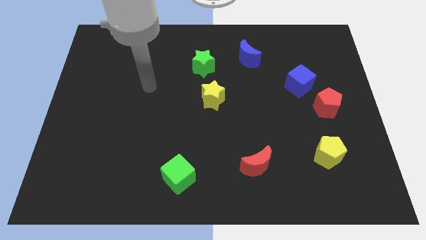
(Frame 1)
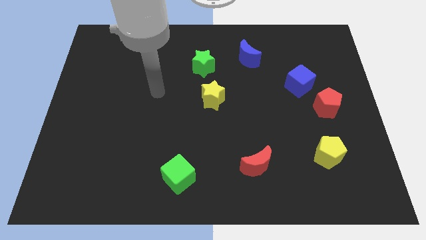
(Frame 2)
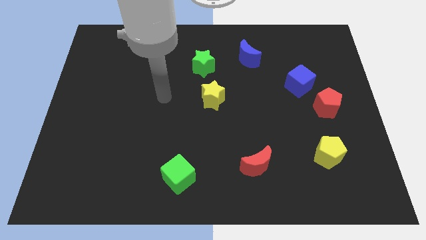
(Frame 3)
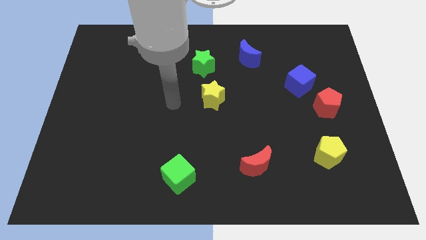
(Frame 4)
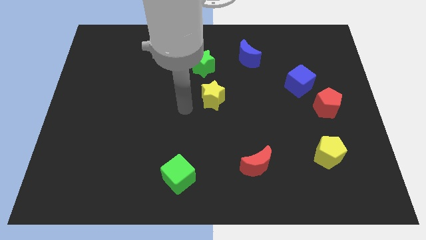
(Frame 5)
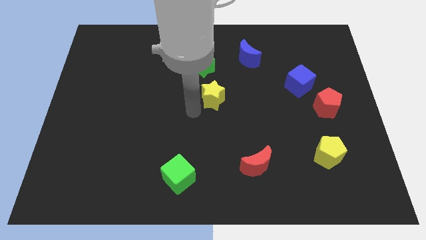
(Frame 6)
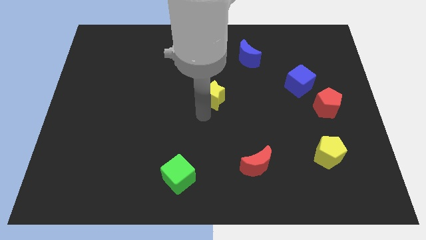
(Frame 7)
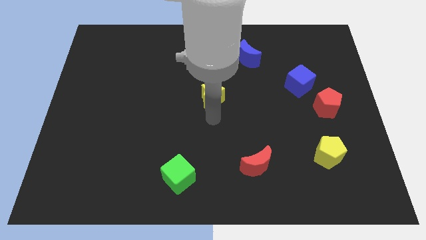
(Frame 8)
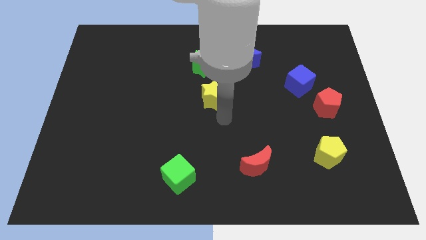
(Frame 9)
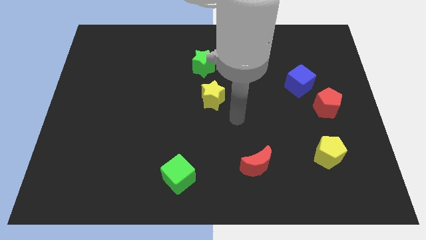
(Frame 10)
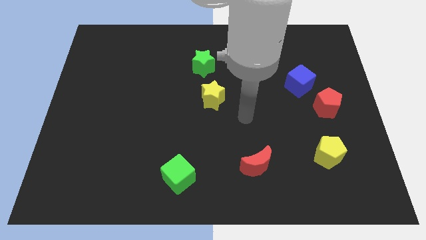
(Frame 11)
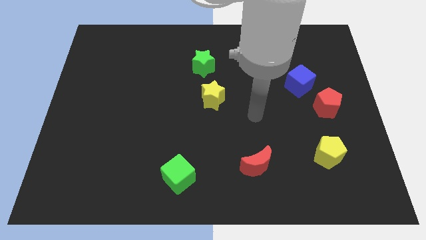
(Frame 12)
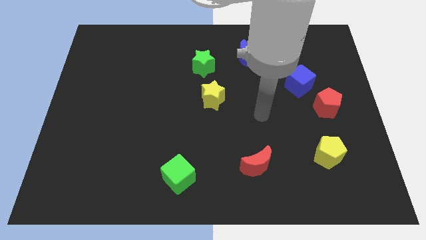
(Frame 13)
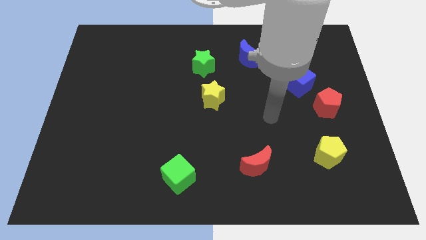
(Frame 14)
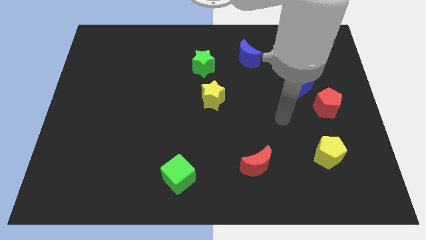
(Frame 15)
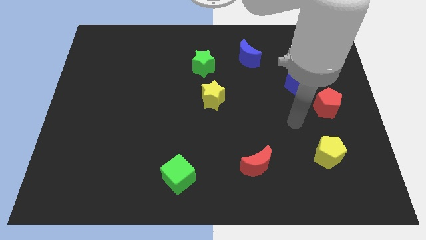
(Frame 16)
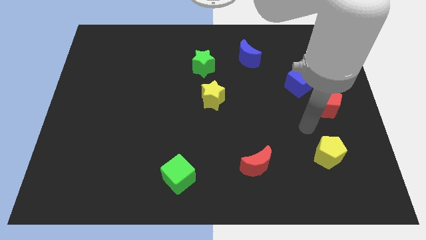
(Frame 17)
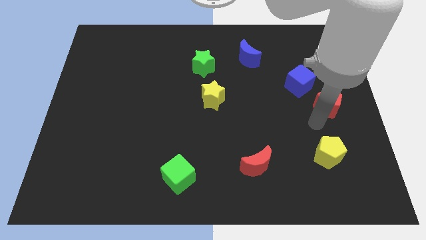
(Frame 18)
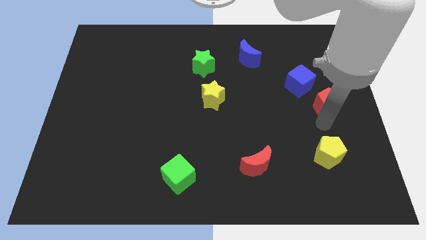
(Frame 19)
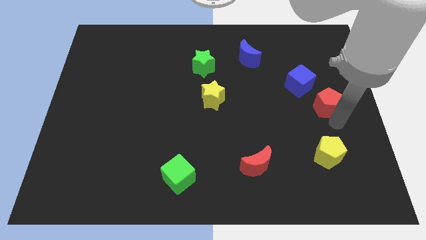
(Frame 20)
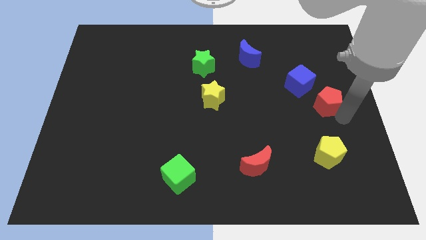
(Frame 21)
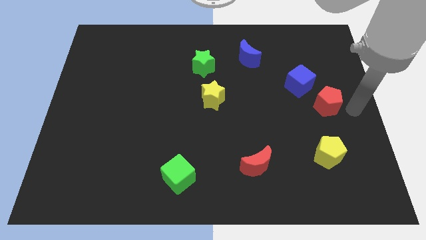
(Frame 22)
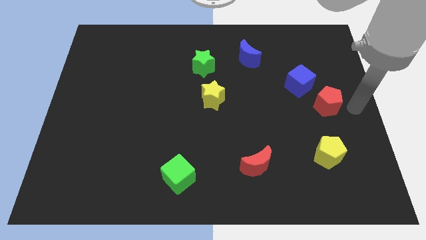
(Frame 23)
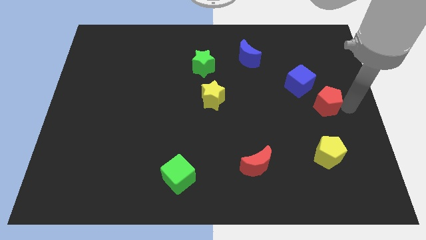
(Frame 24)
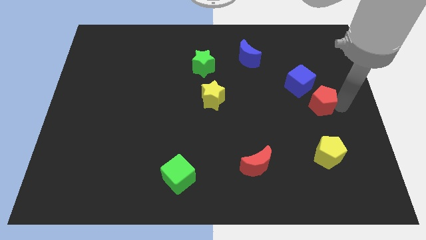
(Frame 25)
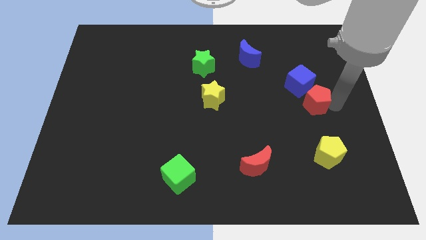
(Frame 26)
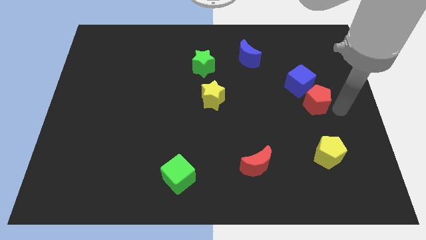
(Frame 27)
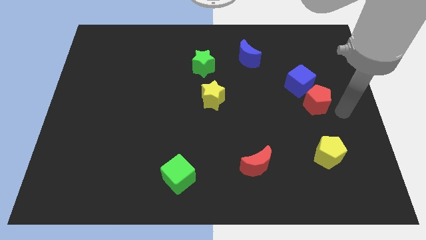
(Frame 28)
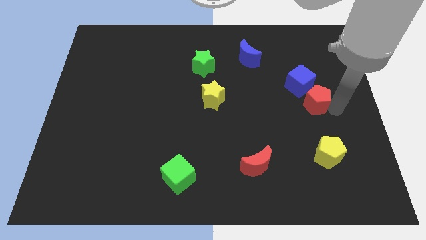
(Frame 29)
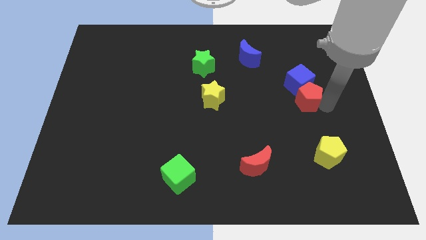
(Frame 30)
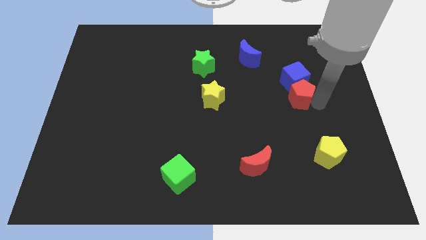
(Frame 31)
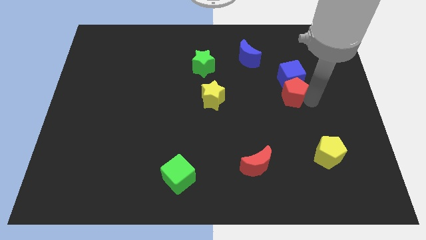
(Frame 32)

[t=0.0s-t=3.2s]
slightly push the red pentagon upwards and then to the left

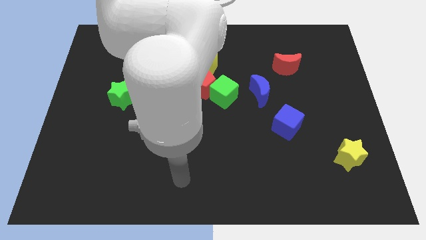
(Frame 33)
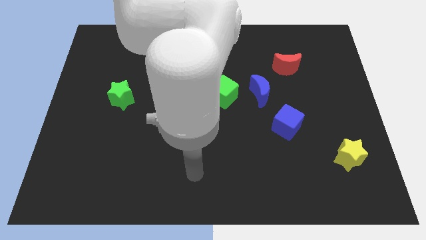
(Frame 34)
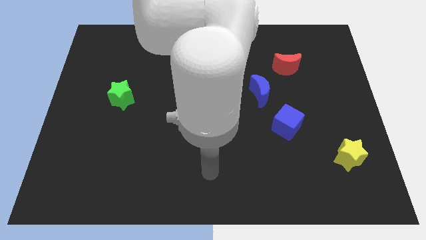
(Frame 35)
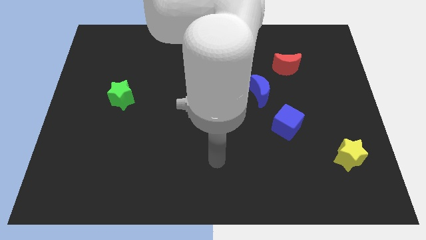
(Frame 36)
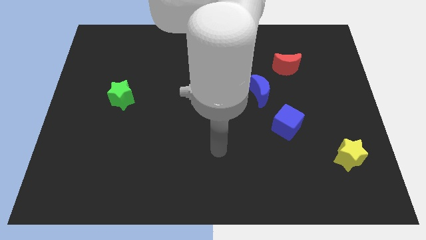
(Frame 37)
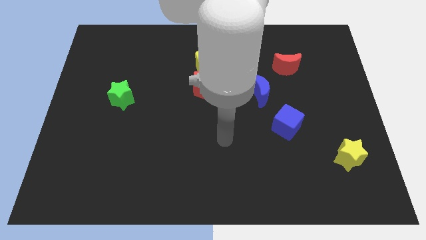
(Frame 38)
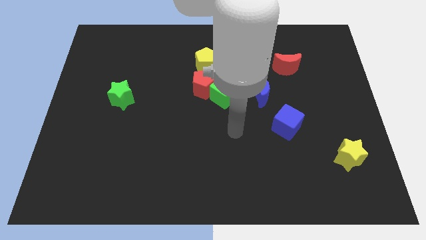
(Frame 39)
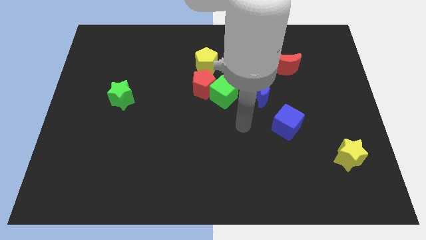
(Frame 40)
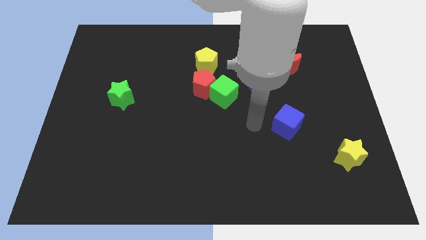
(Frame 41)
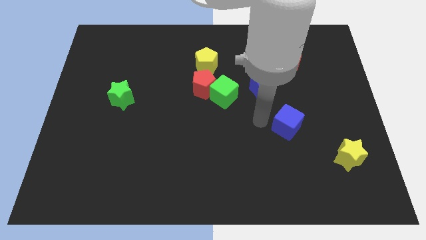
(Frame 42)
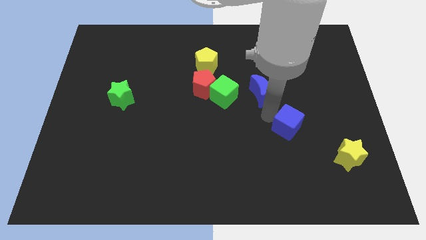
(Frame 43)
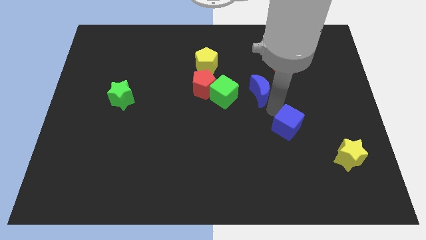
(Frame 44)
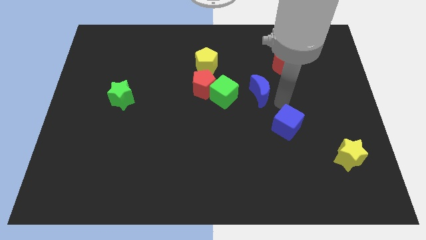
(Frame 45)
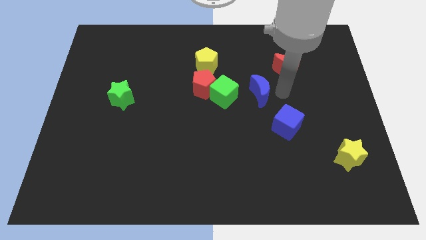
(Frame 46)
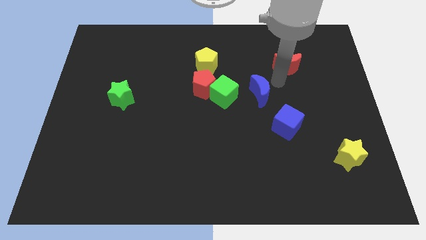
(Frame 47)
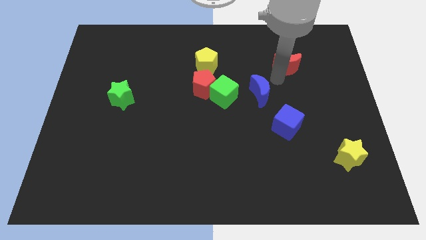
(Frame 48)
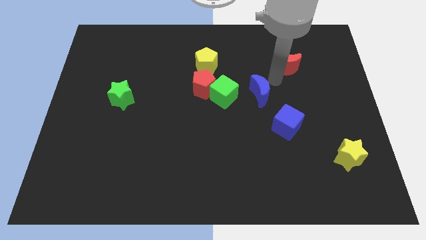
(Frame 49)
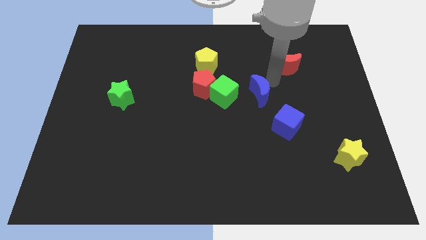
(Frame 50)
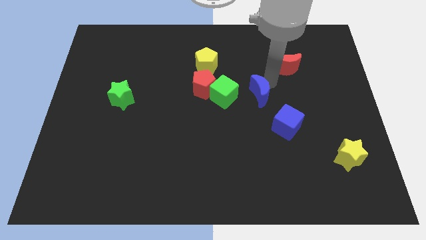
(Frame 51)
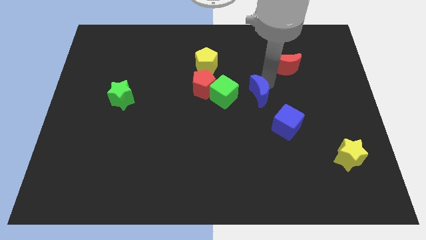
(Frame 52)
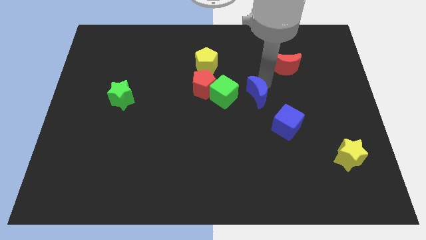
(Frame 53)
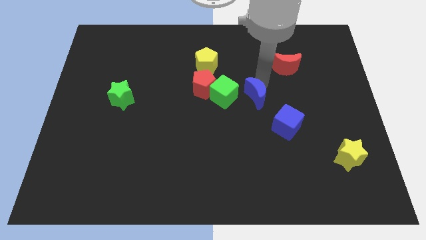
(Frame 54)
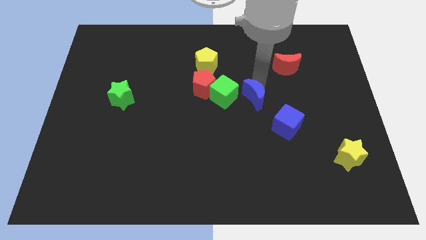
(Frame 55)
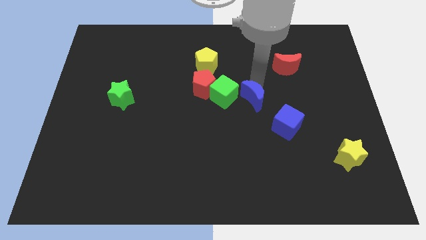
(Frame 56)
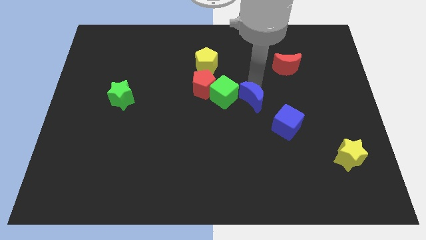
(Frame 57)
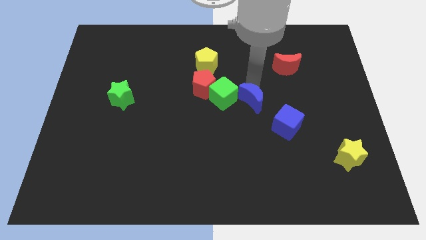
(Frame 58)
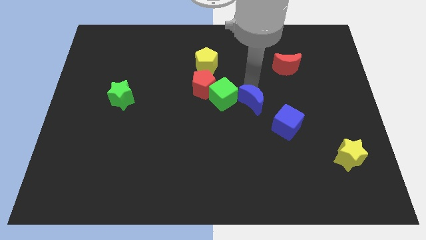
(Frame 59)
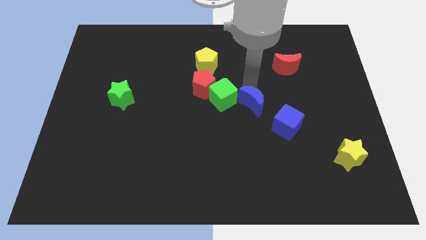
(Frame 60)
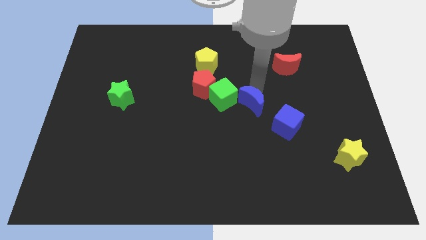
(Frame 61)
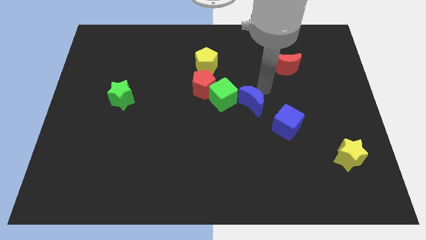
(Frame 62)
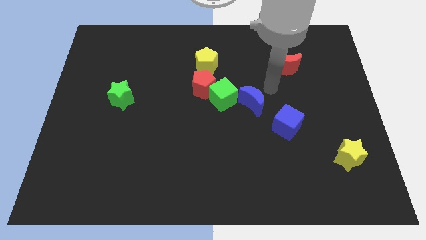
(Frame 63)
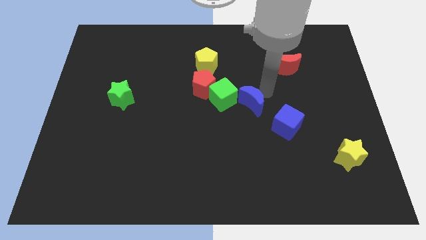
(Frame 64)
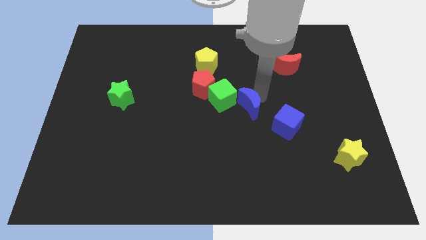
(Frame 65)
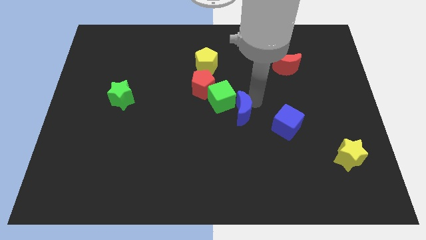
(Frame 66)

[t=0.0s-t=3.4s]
slide the blue moon somewhat down and left diagonally

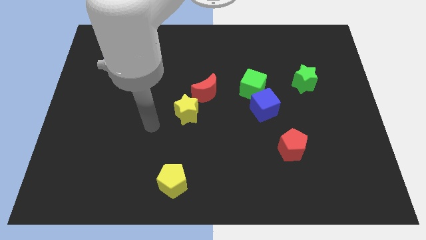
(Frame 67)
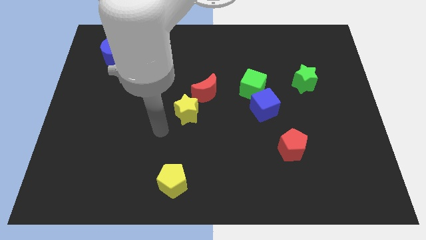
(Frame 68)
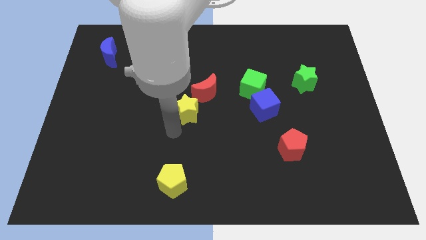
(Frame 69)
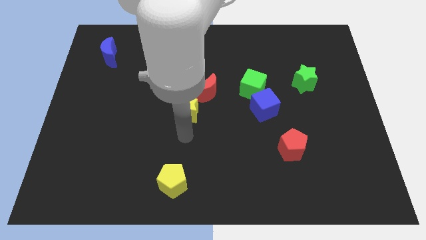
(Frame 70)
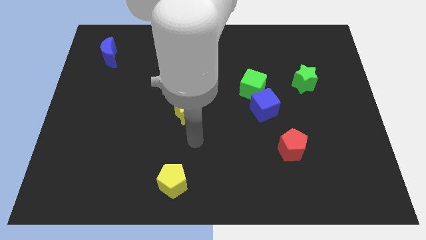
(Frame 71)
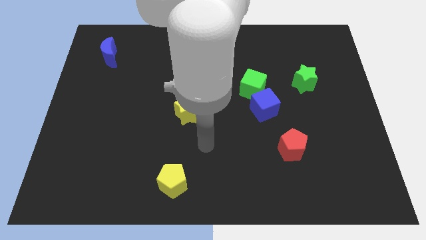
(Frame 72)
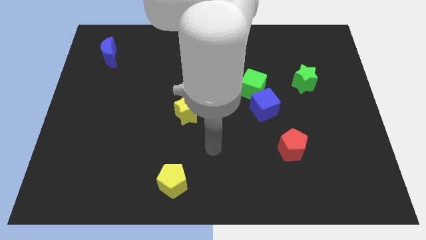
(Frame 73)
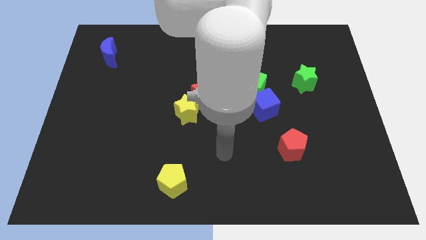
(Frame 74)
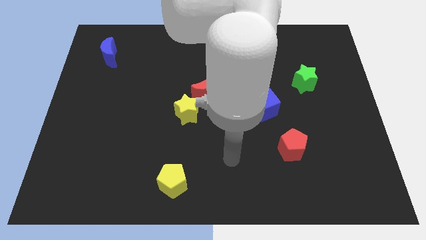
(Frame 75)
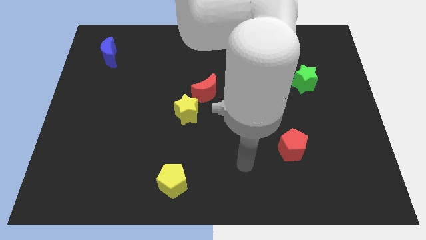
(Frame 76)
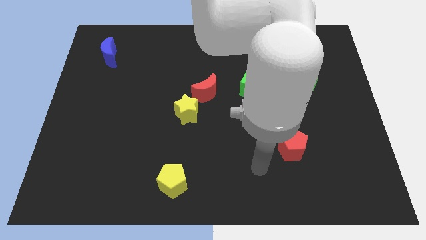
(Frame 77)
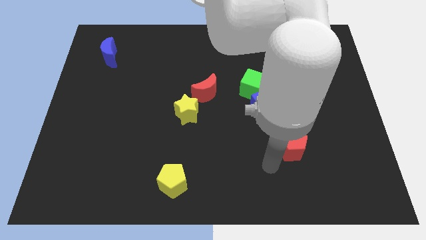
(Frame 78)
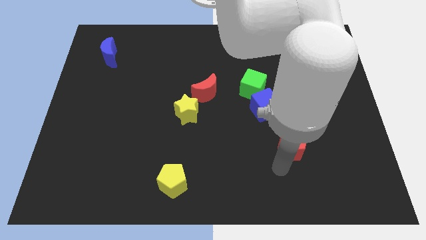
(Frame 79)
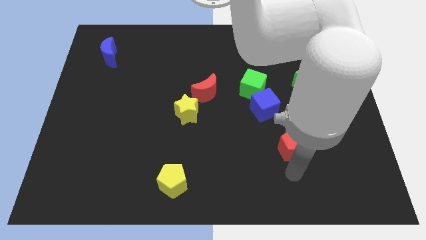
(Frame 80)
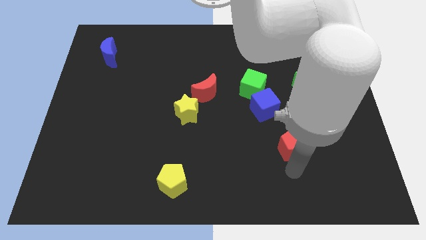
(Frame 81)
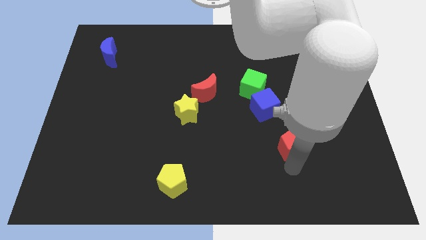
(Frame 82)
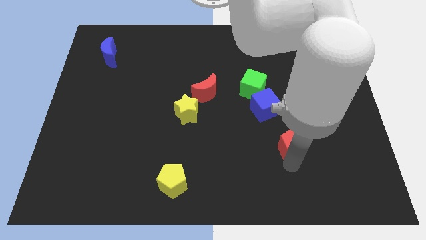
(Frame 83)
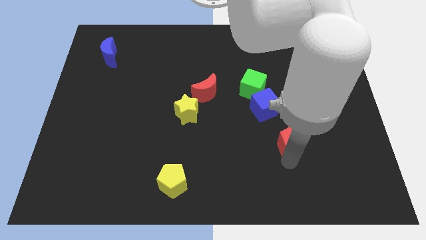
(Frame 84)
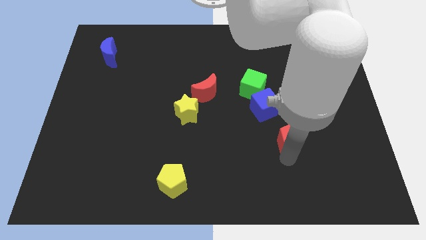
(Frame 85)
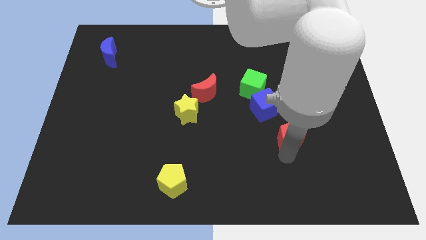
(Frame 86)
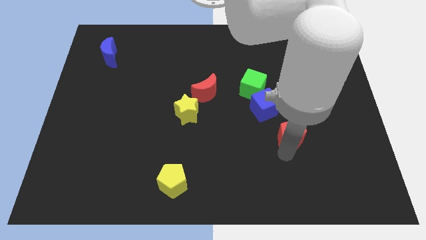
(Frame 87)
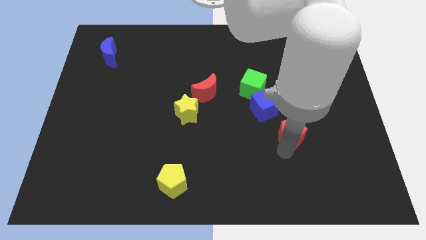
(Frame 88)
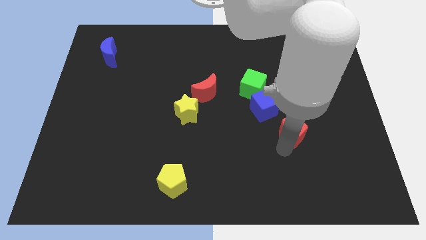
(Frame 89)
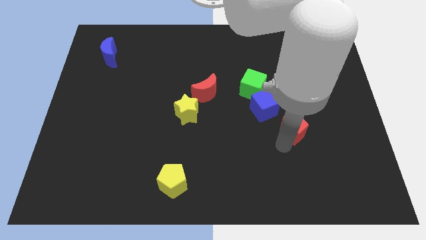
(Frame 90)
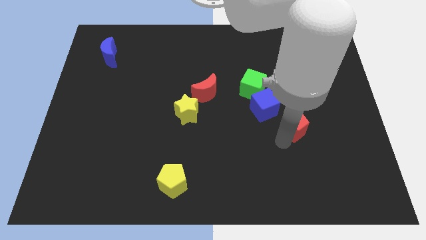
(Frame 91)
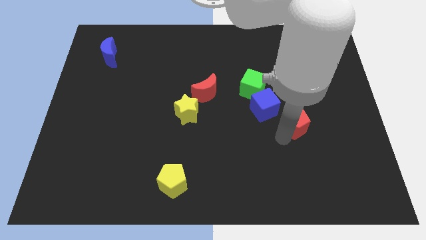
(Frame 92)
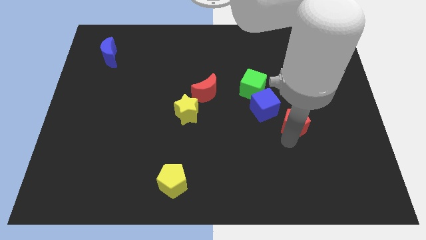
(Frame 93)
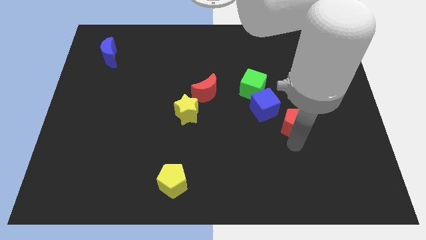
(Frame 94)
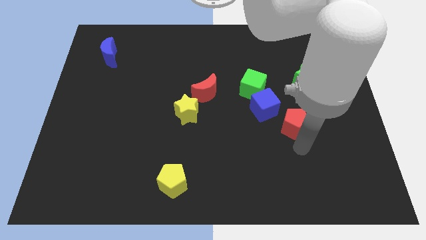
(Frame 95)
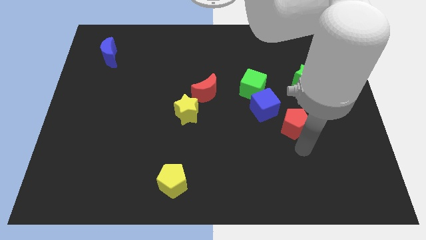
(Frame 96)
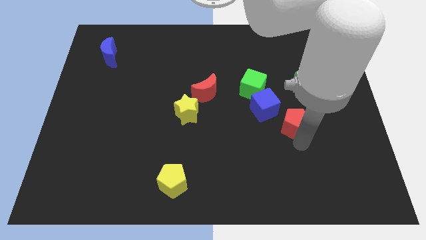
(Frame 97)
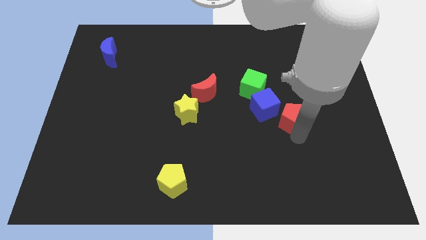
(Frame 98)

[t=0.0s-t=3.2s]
slightly slide the red pentagon up
